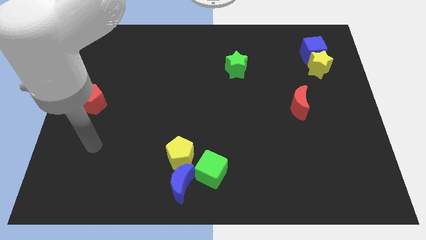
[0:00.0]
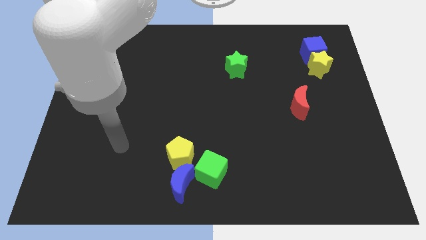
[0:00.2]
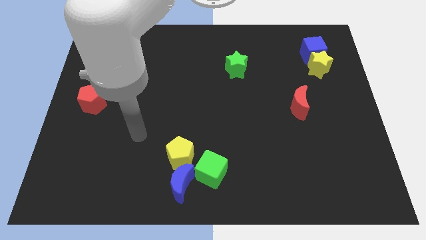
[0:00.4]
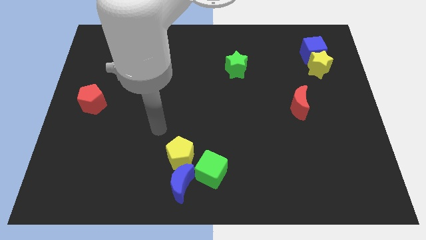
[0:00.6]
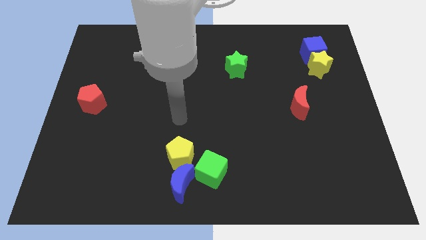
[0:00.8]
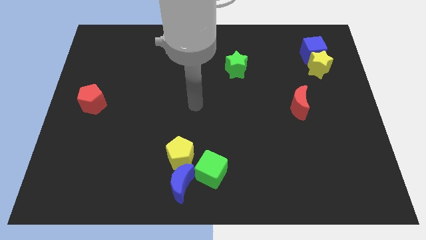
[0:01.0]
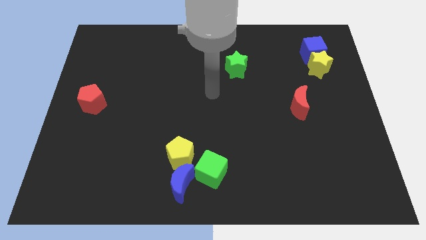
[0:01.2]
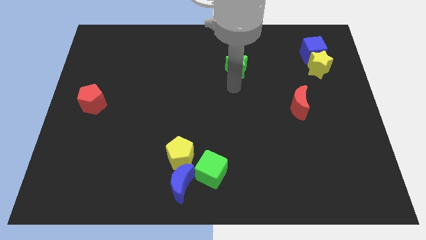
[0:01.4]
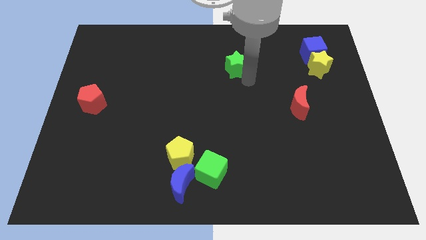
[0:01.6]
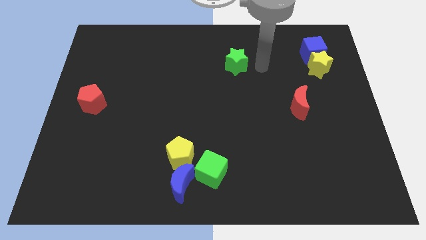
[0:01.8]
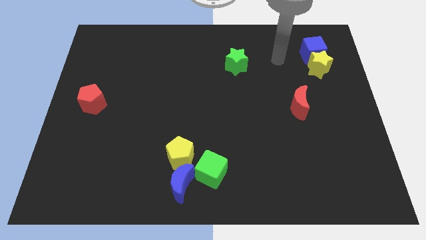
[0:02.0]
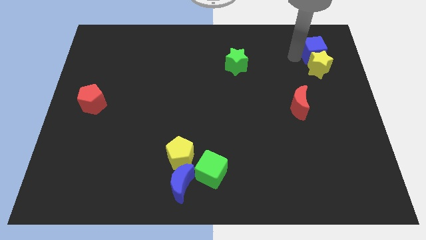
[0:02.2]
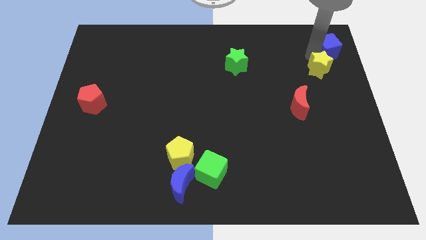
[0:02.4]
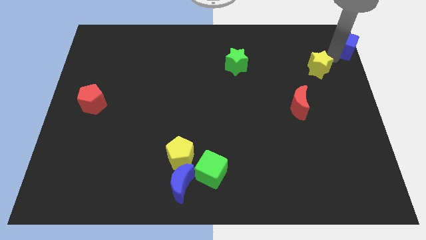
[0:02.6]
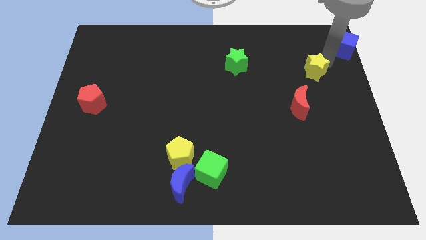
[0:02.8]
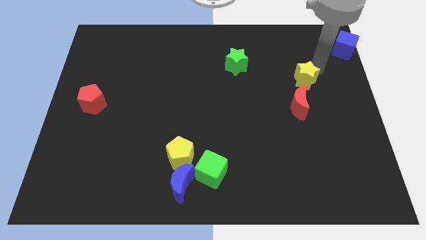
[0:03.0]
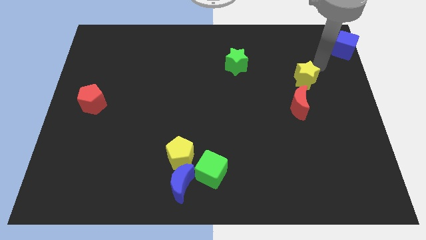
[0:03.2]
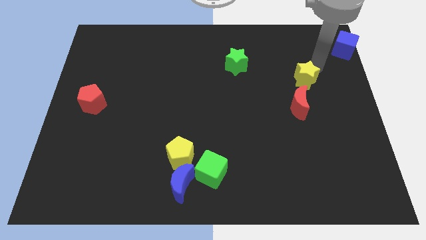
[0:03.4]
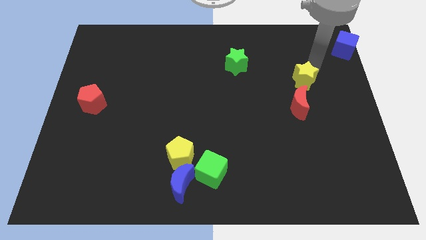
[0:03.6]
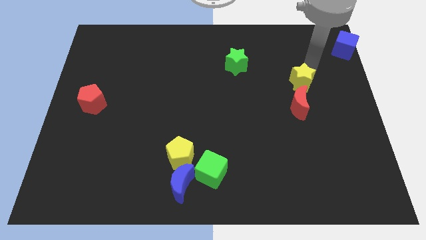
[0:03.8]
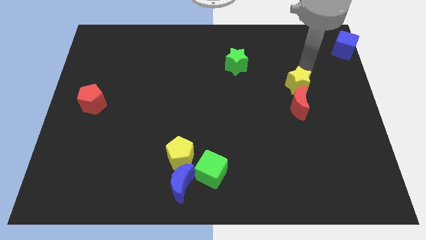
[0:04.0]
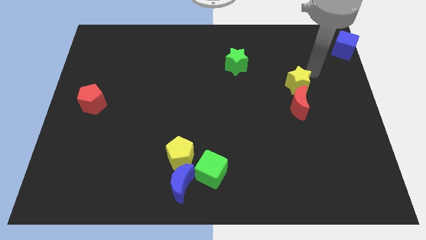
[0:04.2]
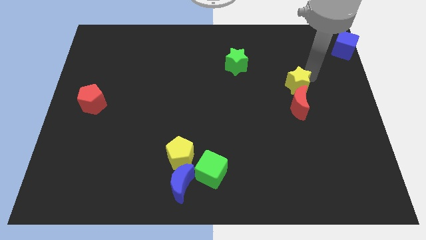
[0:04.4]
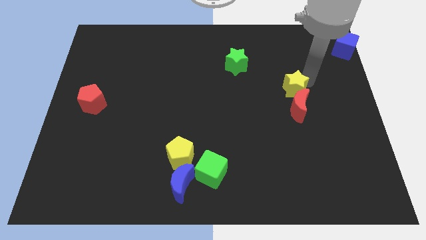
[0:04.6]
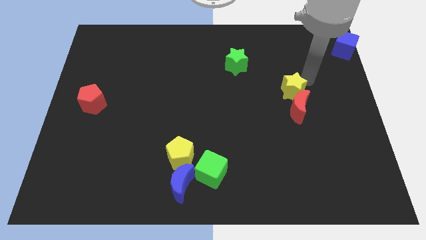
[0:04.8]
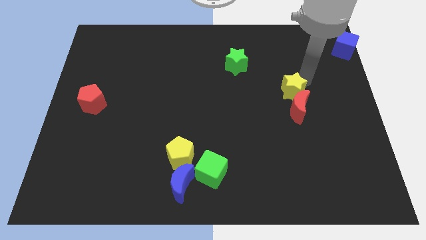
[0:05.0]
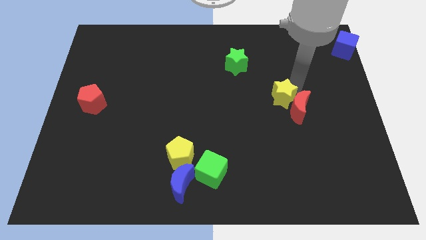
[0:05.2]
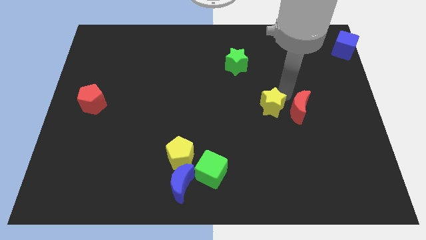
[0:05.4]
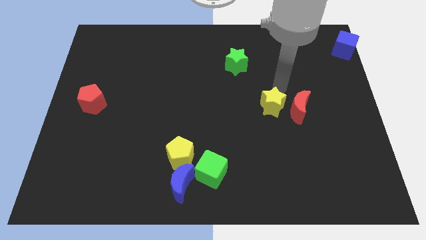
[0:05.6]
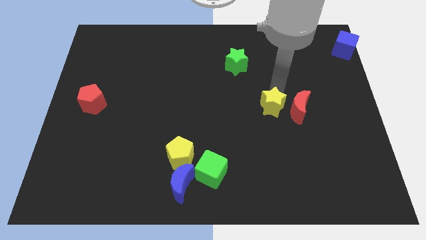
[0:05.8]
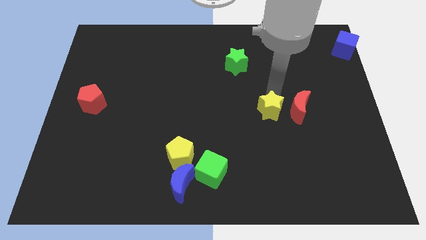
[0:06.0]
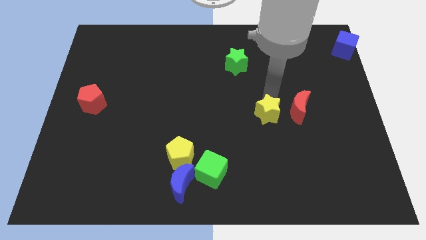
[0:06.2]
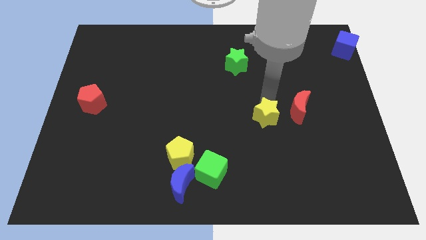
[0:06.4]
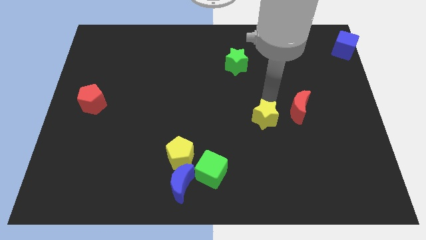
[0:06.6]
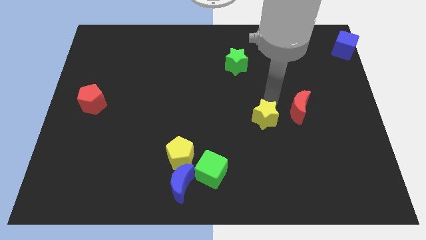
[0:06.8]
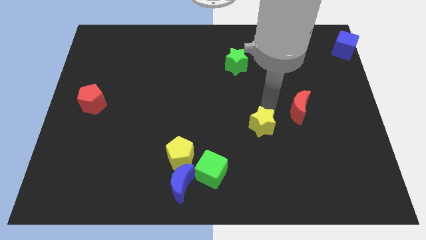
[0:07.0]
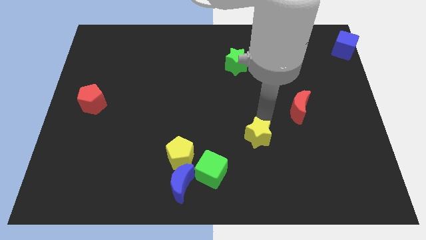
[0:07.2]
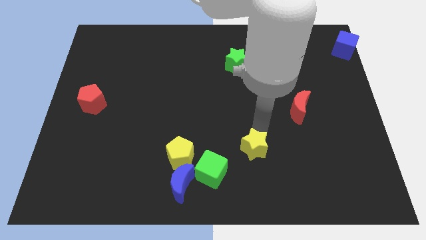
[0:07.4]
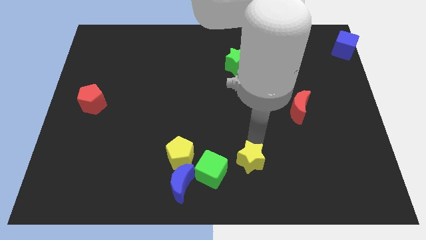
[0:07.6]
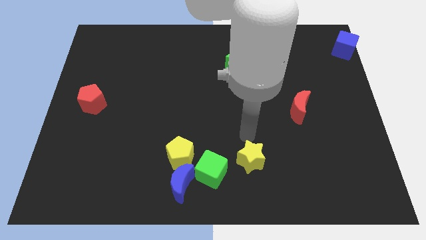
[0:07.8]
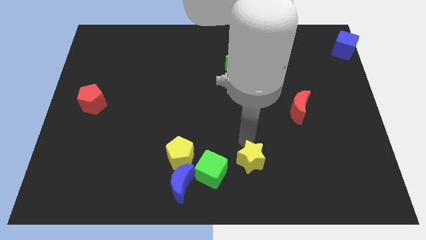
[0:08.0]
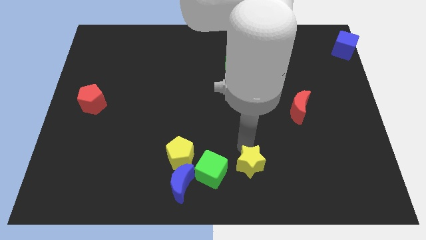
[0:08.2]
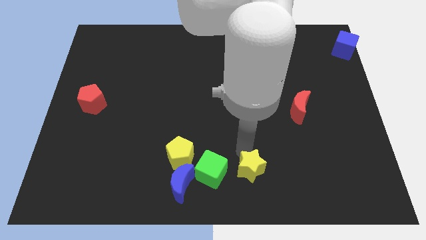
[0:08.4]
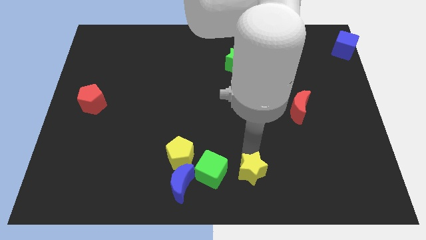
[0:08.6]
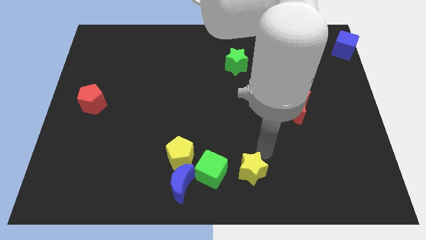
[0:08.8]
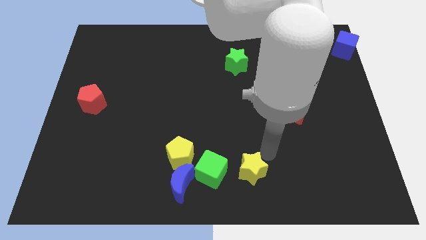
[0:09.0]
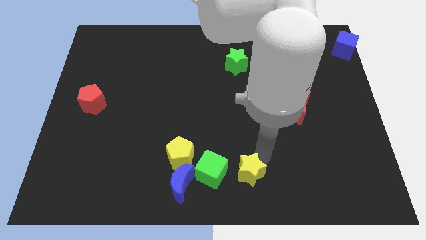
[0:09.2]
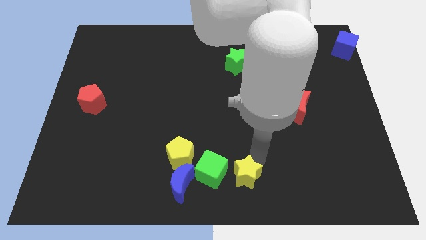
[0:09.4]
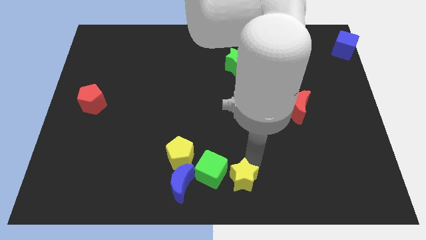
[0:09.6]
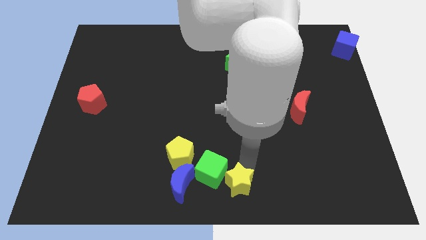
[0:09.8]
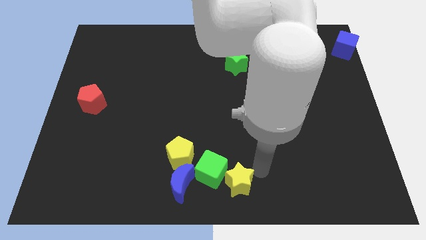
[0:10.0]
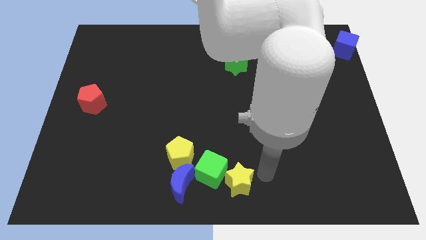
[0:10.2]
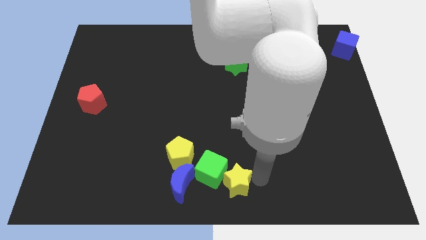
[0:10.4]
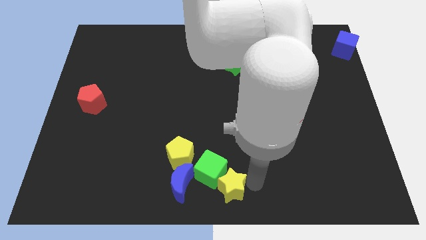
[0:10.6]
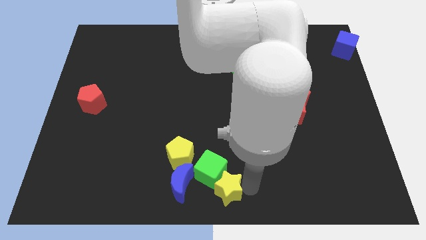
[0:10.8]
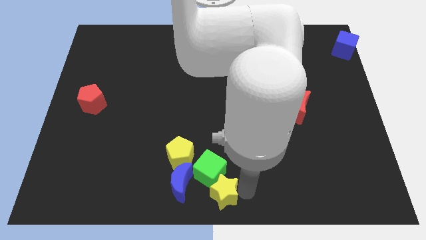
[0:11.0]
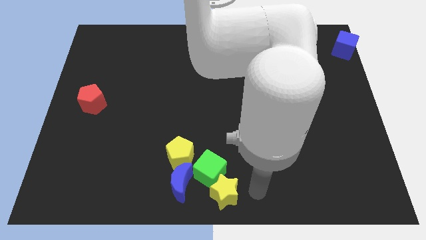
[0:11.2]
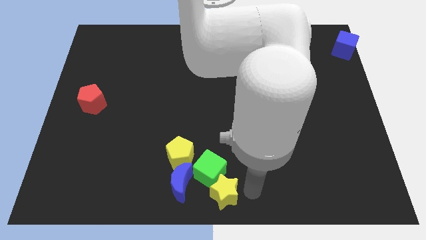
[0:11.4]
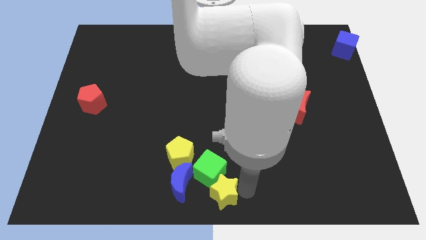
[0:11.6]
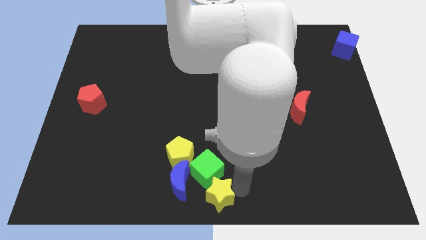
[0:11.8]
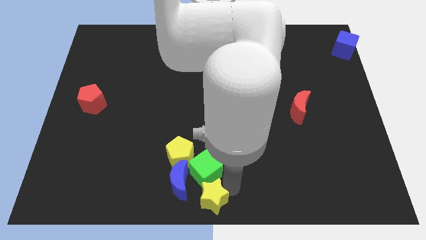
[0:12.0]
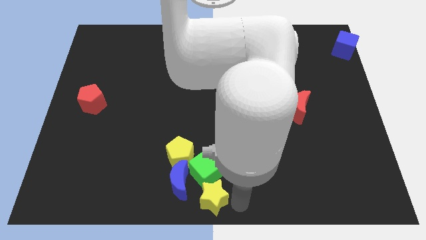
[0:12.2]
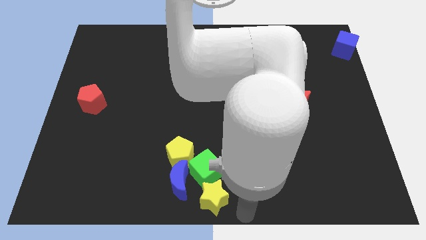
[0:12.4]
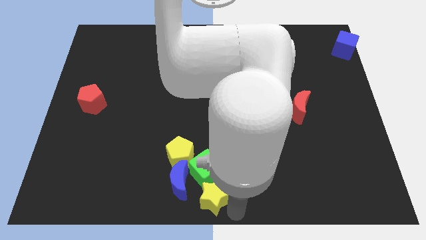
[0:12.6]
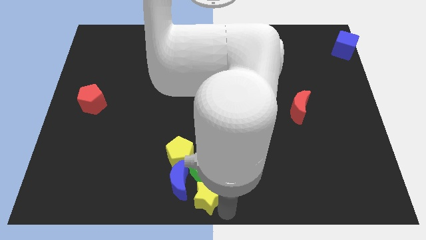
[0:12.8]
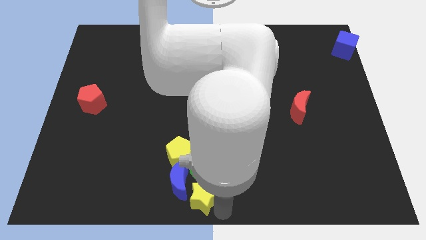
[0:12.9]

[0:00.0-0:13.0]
slide the yellow star next to the blue moon

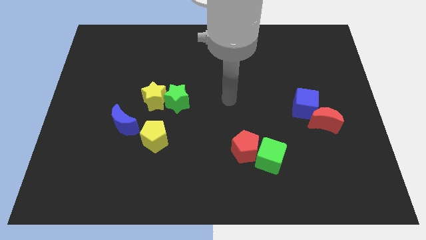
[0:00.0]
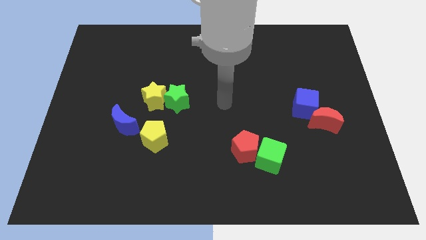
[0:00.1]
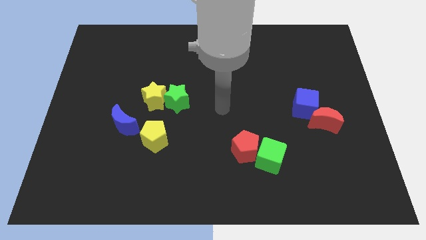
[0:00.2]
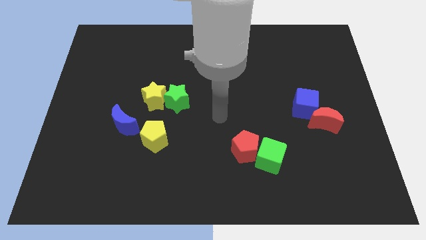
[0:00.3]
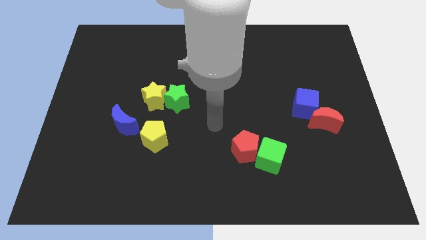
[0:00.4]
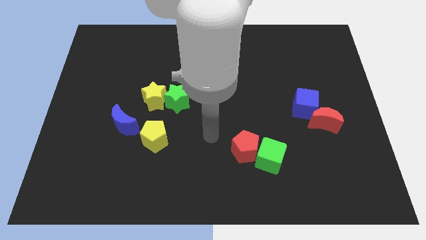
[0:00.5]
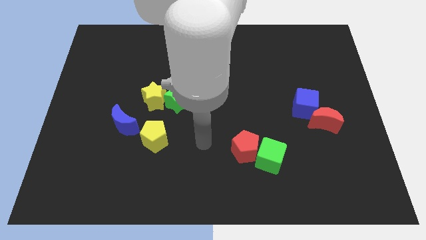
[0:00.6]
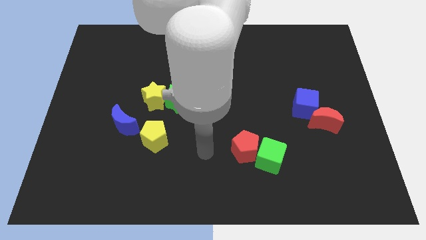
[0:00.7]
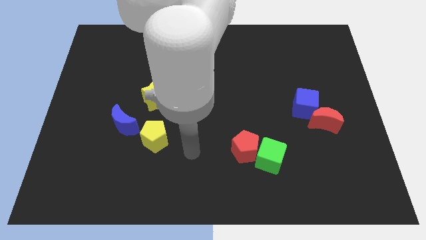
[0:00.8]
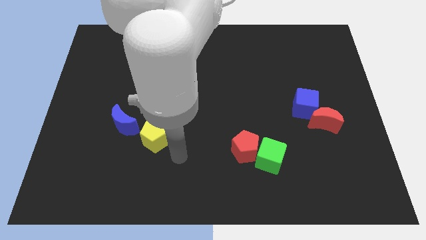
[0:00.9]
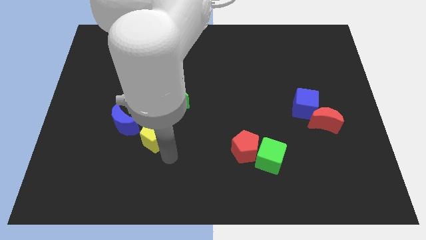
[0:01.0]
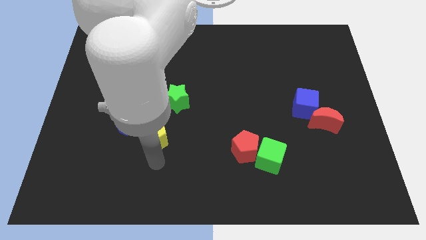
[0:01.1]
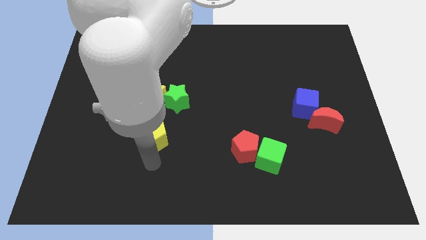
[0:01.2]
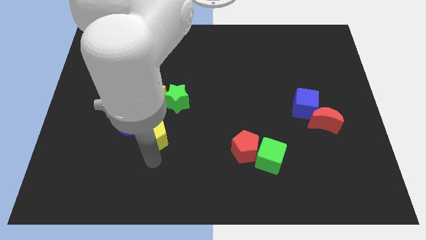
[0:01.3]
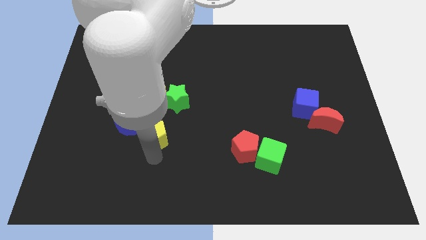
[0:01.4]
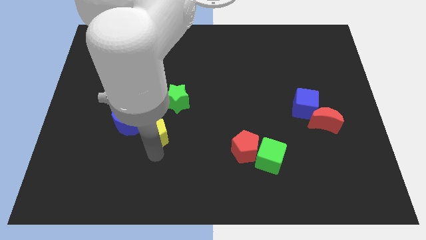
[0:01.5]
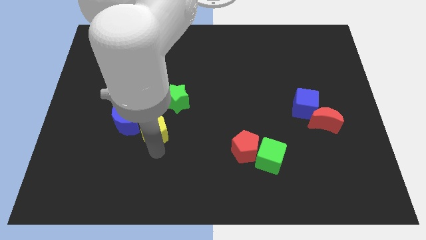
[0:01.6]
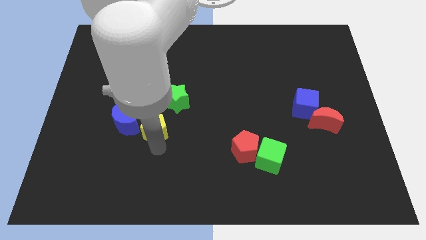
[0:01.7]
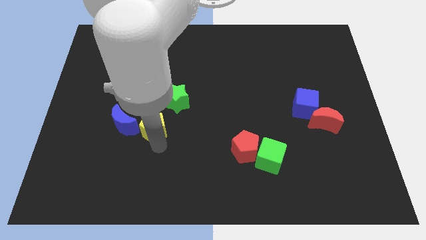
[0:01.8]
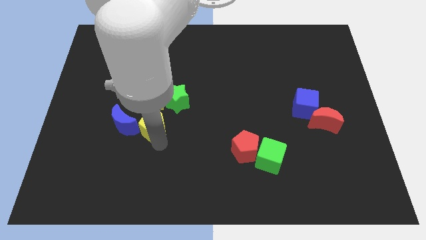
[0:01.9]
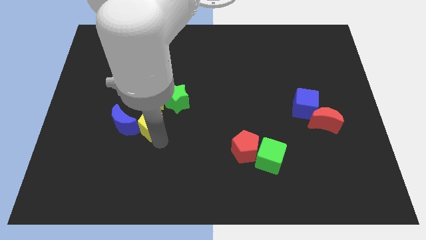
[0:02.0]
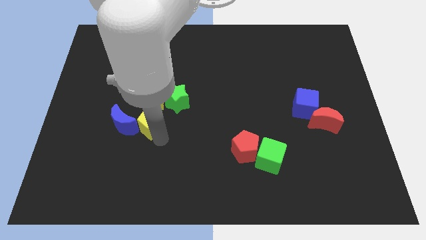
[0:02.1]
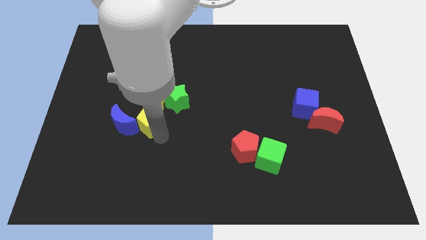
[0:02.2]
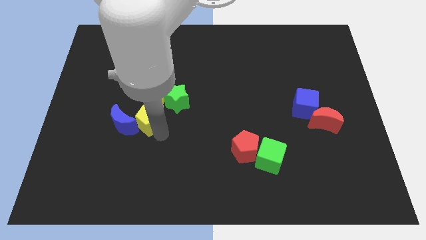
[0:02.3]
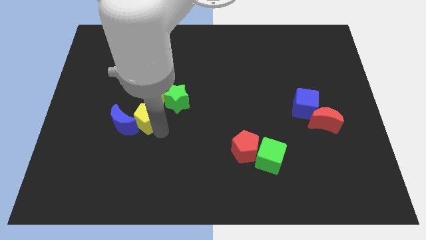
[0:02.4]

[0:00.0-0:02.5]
push the yellow pentagon towards the yellow star
